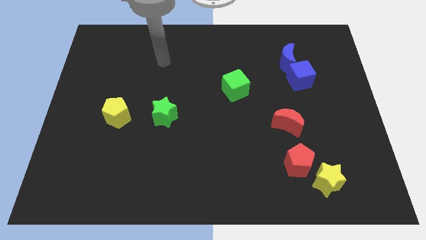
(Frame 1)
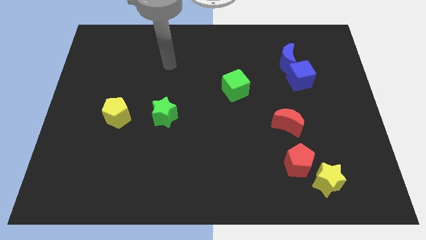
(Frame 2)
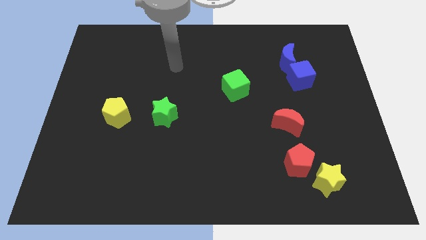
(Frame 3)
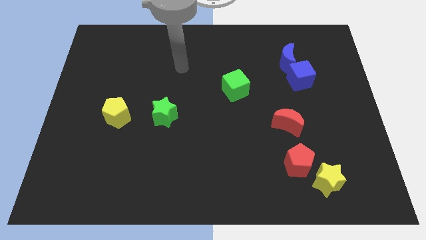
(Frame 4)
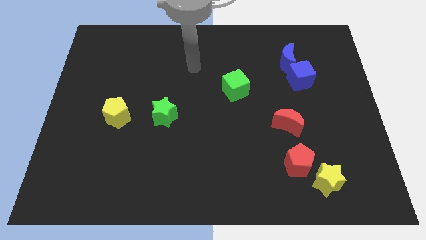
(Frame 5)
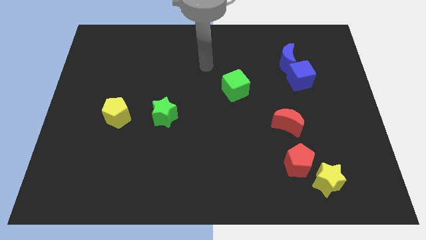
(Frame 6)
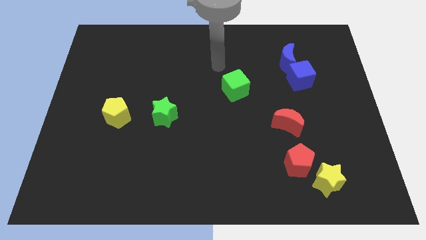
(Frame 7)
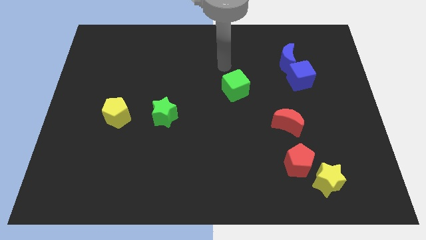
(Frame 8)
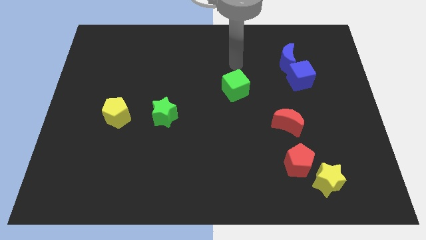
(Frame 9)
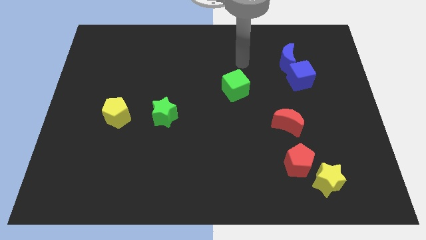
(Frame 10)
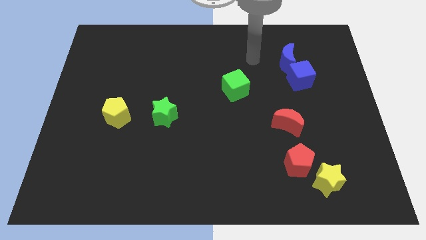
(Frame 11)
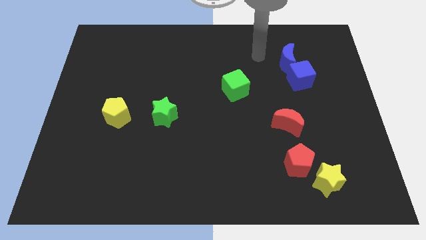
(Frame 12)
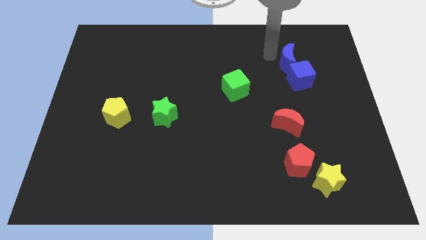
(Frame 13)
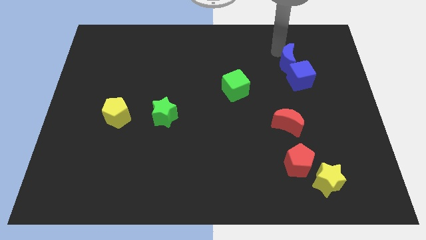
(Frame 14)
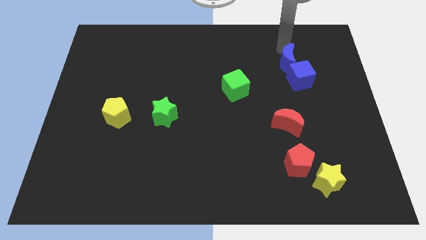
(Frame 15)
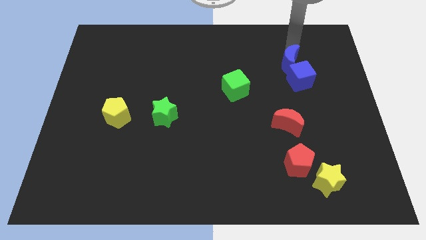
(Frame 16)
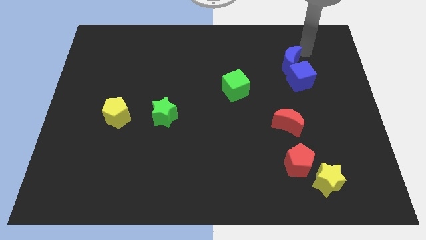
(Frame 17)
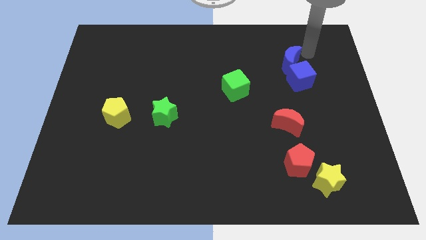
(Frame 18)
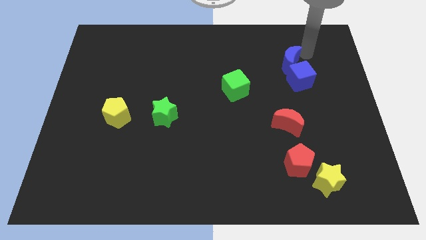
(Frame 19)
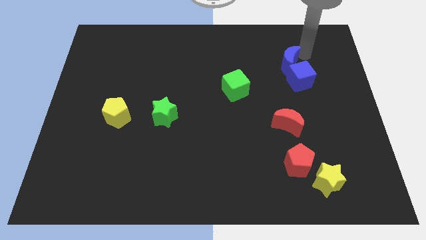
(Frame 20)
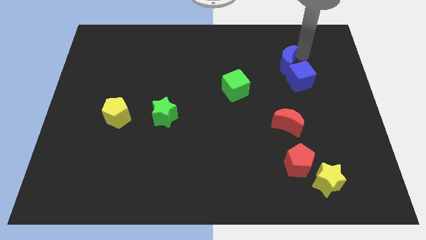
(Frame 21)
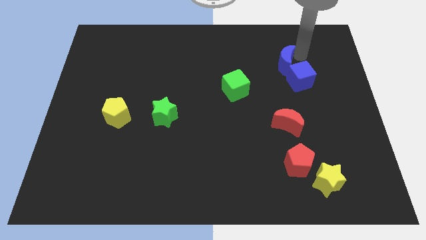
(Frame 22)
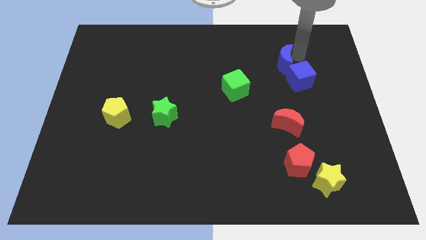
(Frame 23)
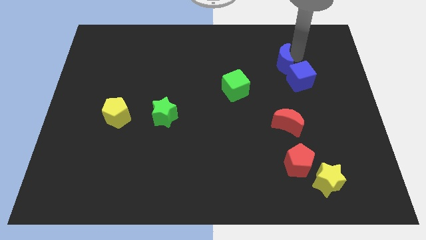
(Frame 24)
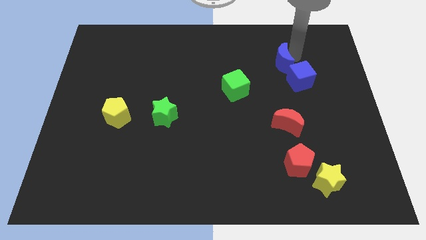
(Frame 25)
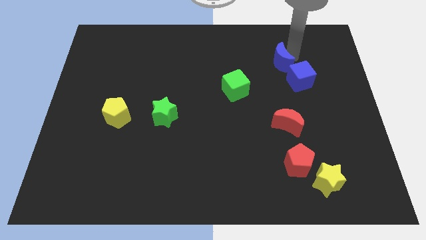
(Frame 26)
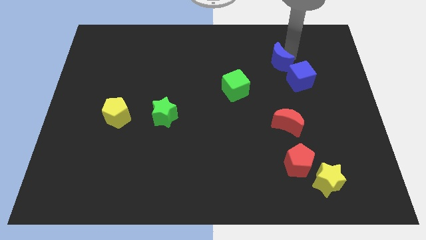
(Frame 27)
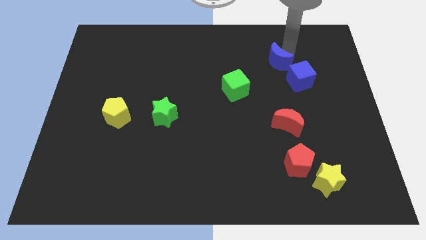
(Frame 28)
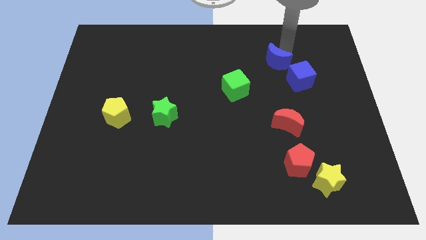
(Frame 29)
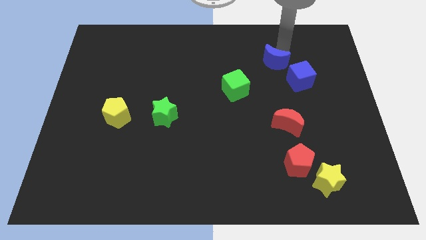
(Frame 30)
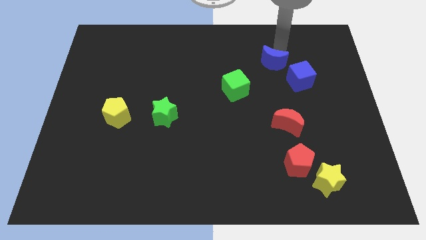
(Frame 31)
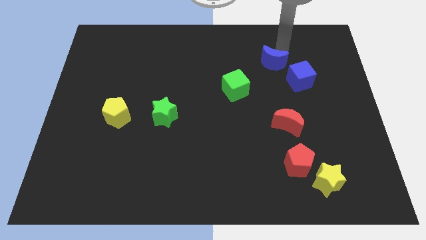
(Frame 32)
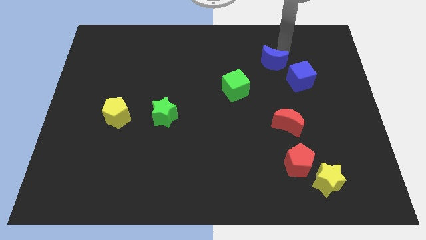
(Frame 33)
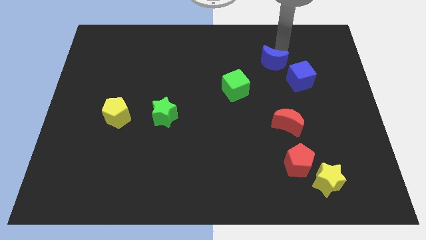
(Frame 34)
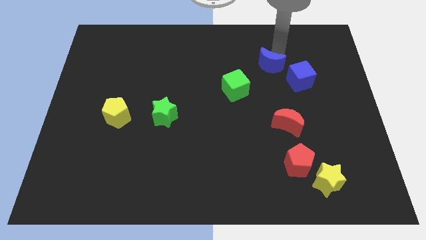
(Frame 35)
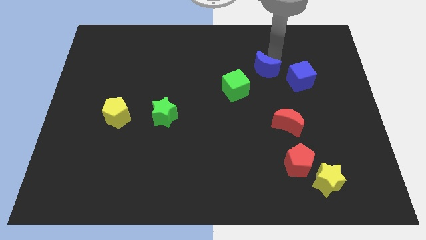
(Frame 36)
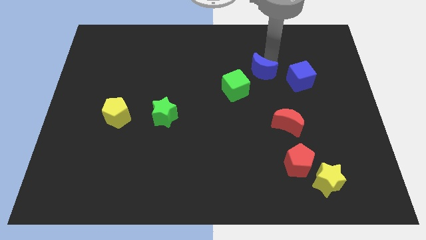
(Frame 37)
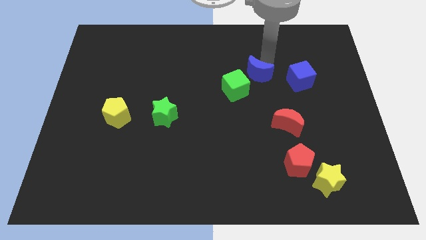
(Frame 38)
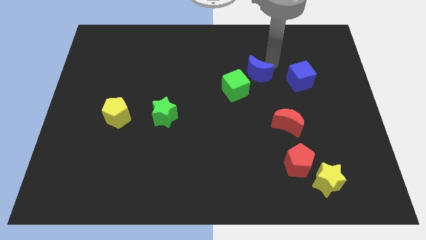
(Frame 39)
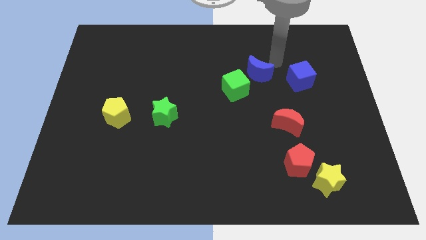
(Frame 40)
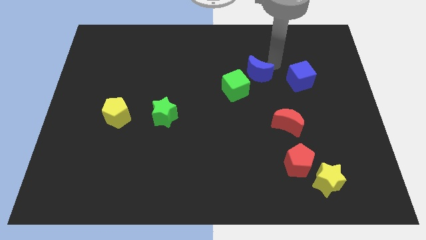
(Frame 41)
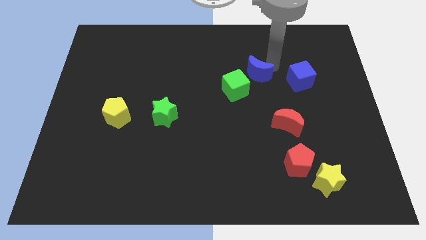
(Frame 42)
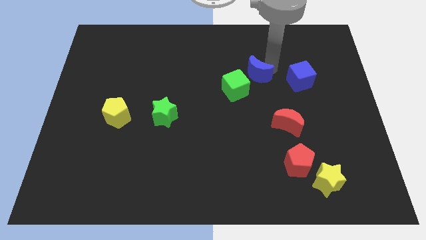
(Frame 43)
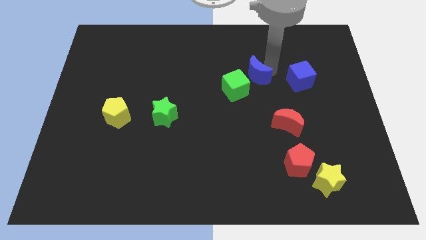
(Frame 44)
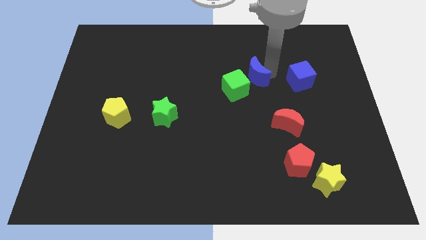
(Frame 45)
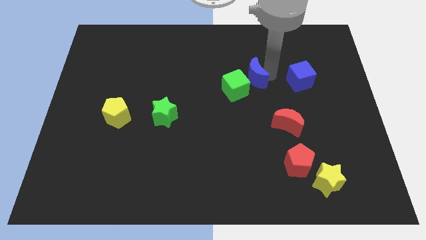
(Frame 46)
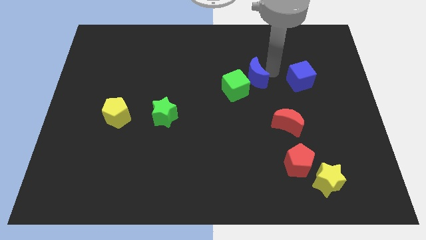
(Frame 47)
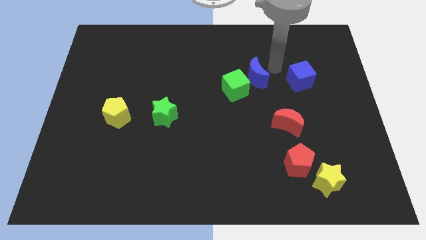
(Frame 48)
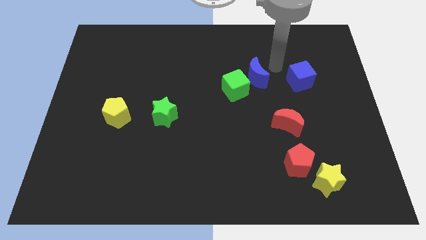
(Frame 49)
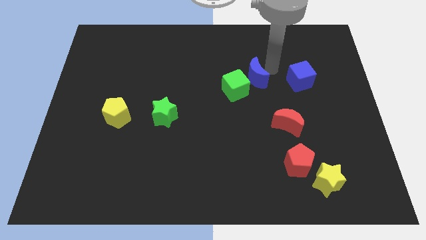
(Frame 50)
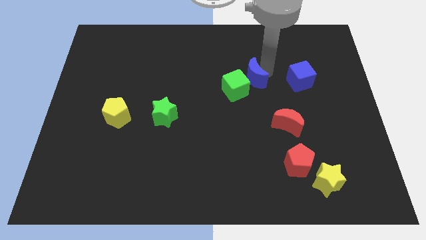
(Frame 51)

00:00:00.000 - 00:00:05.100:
slide the blue moon next to the green cube

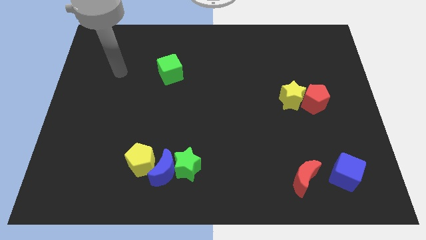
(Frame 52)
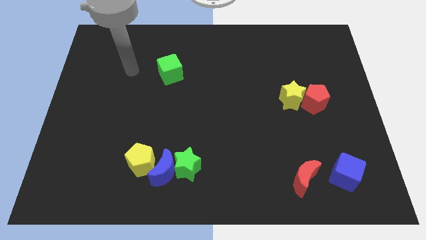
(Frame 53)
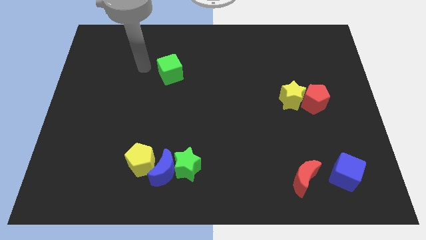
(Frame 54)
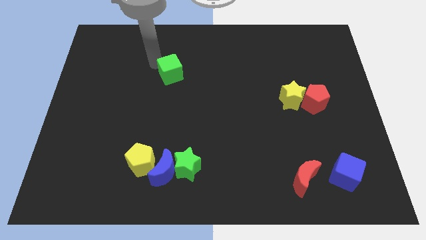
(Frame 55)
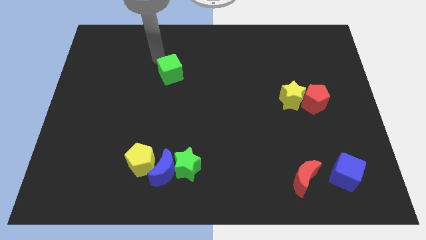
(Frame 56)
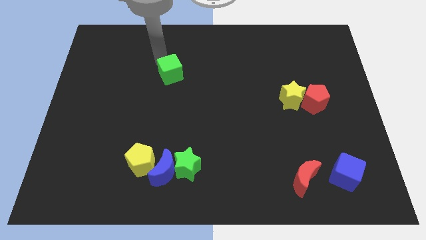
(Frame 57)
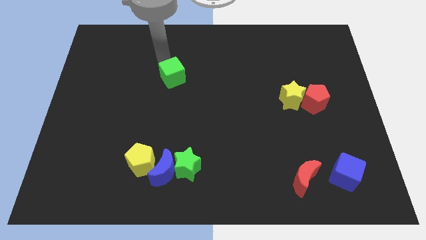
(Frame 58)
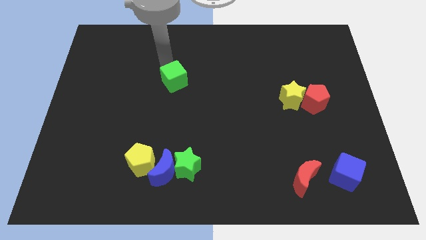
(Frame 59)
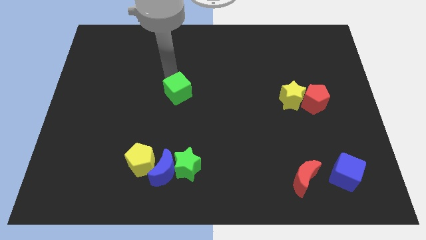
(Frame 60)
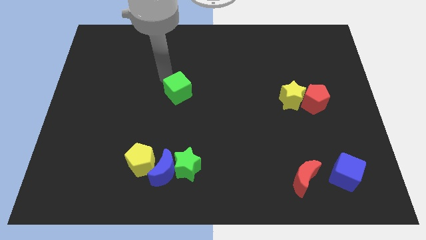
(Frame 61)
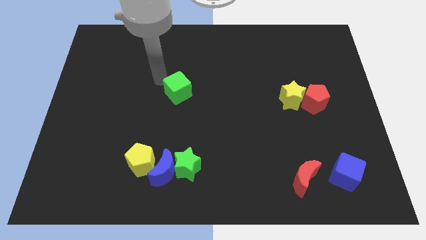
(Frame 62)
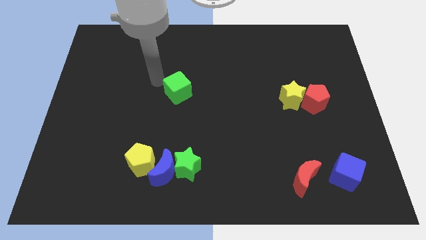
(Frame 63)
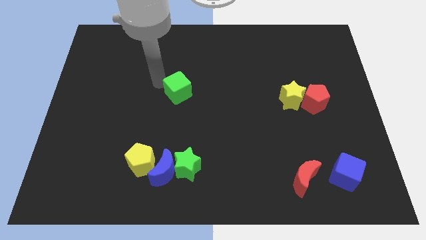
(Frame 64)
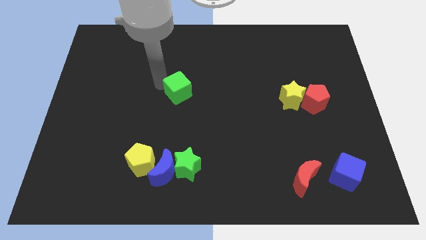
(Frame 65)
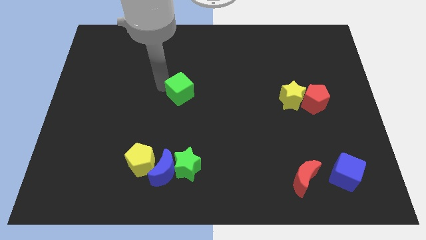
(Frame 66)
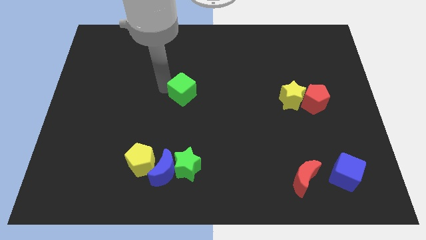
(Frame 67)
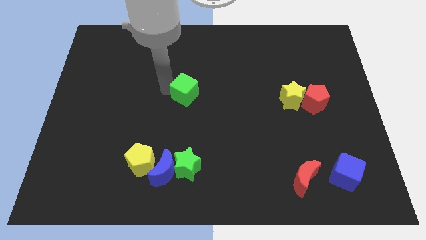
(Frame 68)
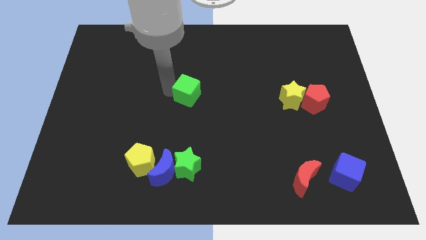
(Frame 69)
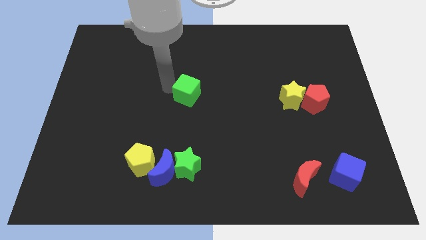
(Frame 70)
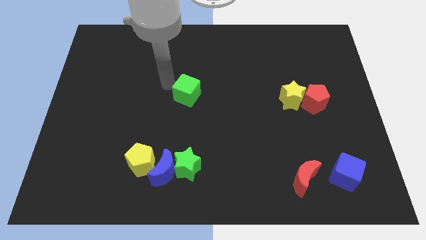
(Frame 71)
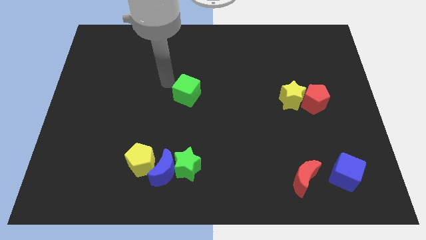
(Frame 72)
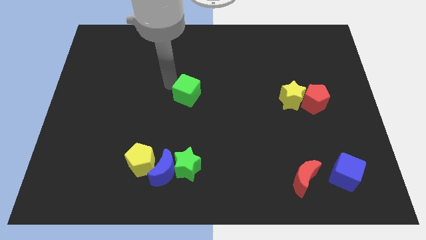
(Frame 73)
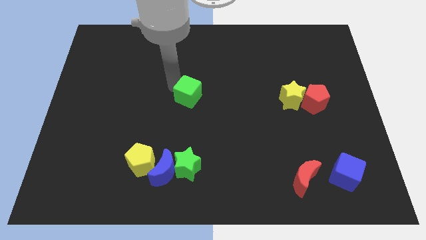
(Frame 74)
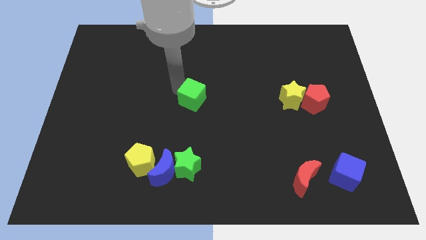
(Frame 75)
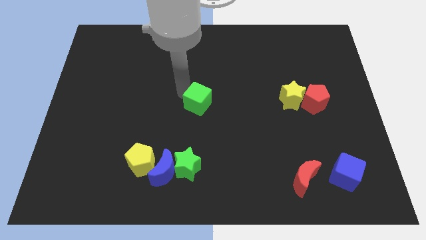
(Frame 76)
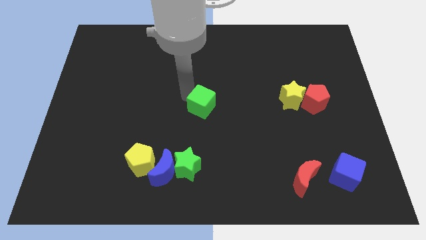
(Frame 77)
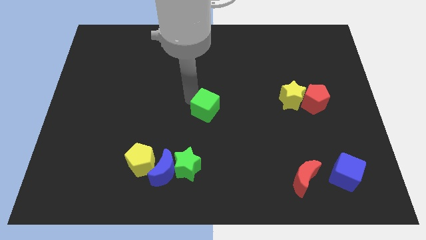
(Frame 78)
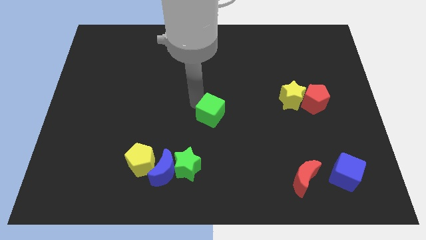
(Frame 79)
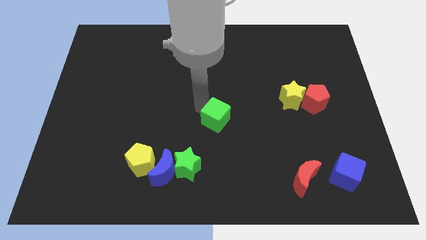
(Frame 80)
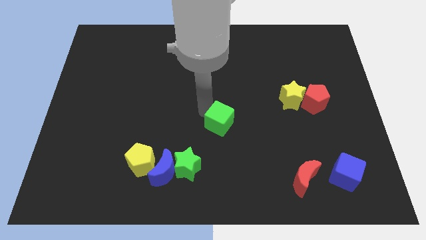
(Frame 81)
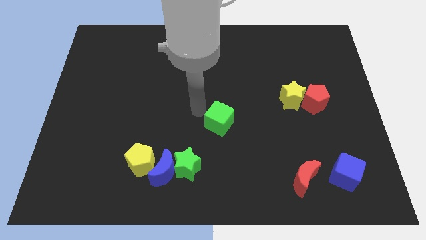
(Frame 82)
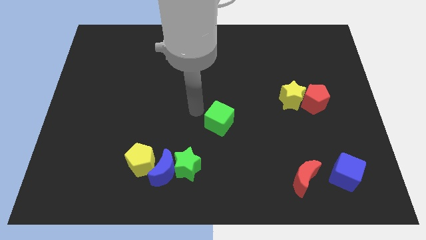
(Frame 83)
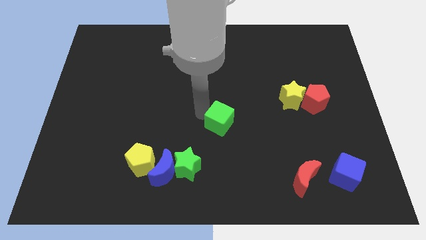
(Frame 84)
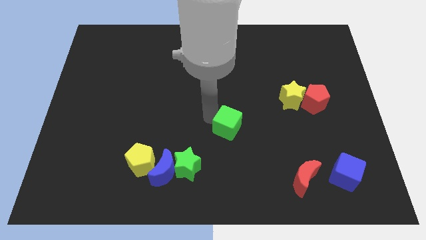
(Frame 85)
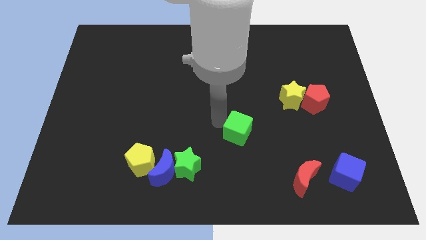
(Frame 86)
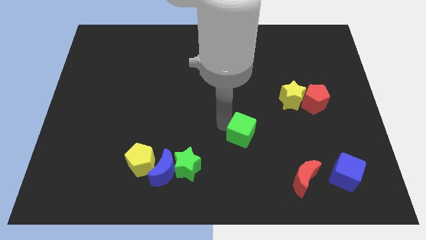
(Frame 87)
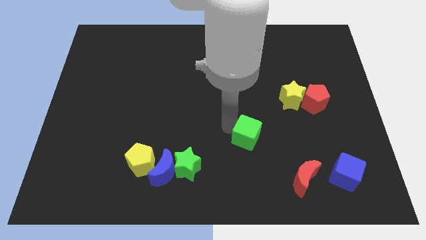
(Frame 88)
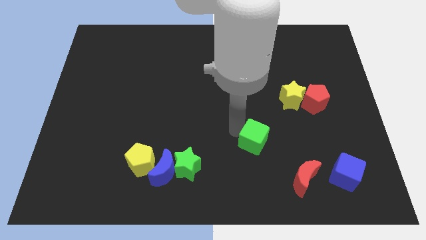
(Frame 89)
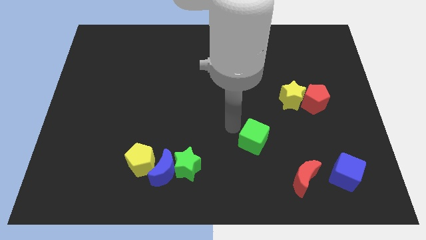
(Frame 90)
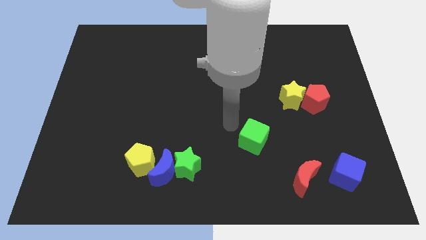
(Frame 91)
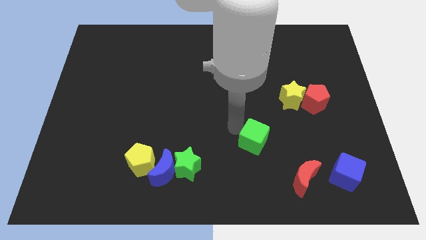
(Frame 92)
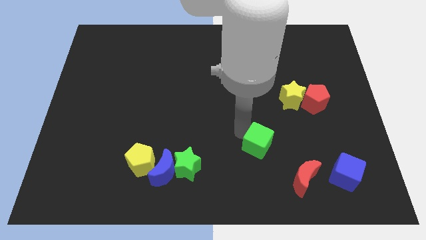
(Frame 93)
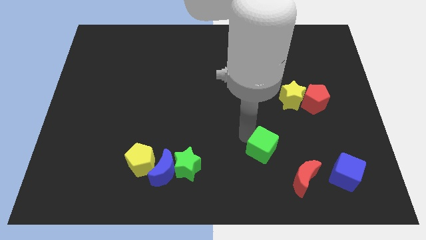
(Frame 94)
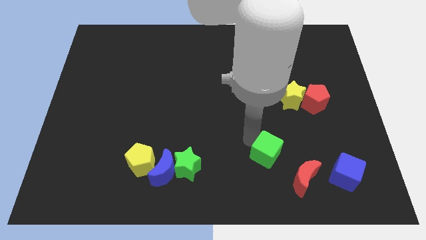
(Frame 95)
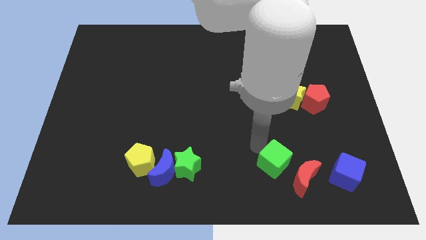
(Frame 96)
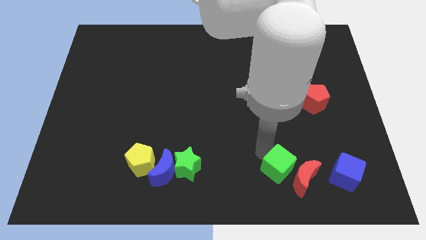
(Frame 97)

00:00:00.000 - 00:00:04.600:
put the green cube to the red moon
